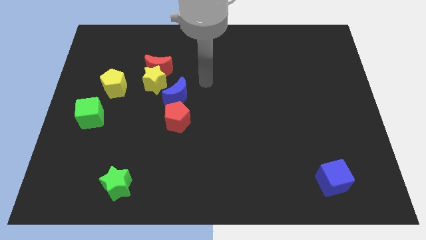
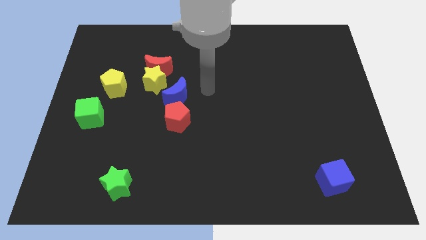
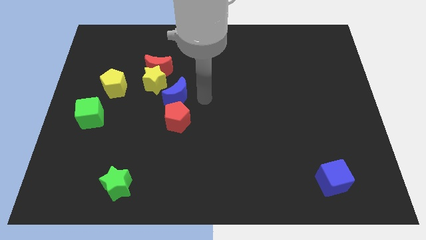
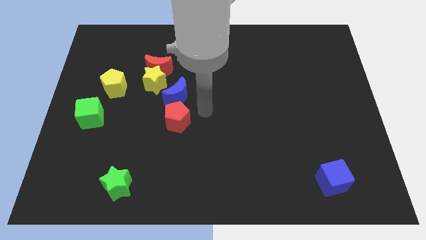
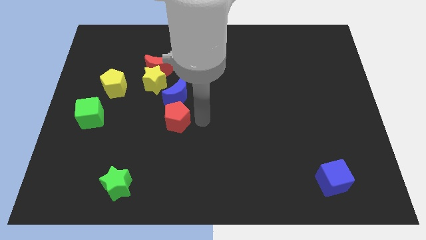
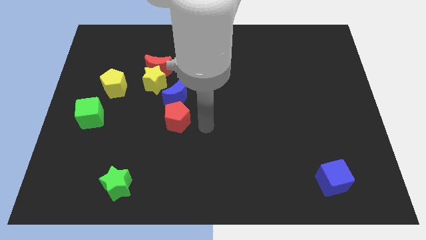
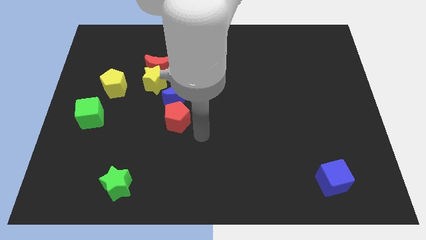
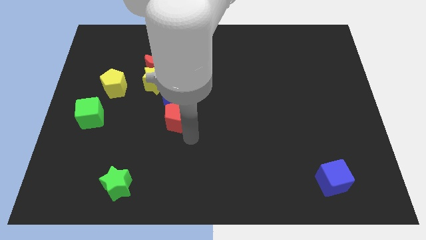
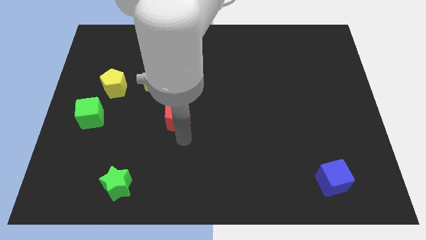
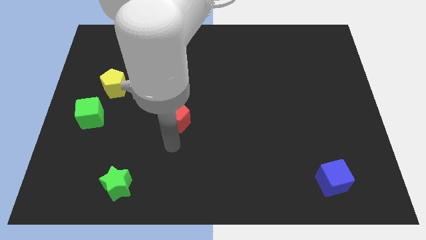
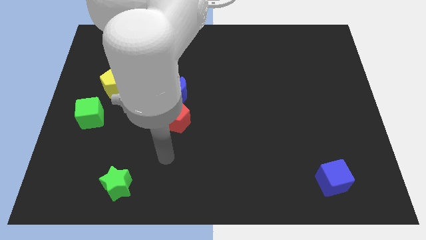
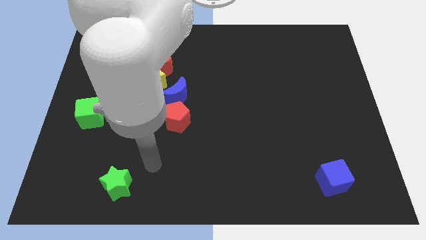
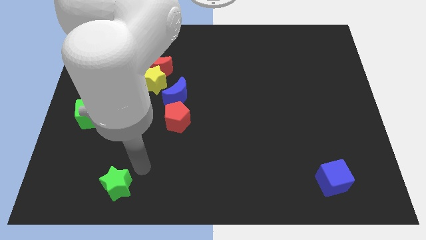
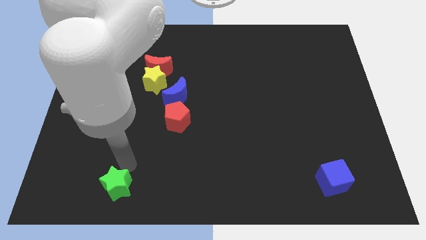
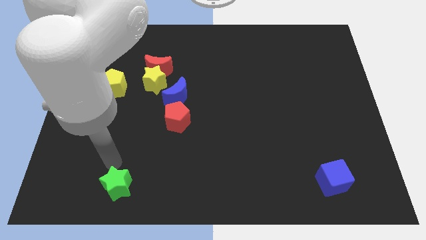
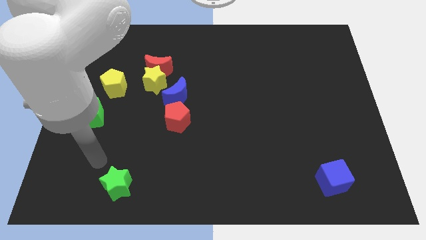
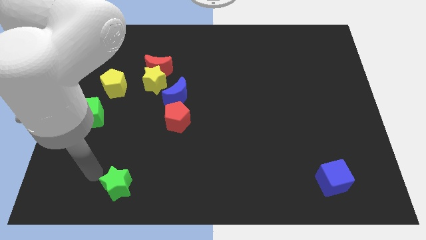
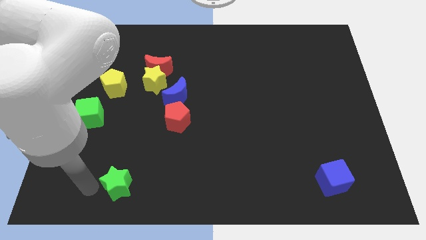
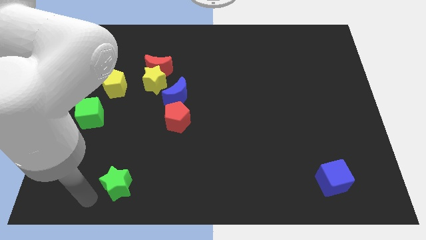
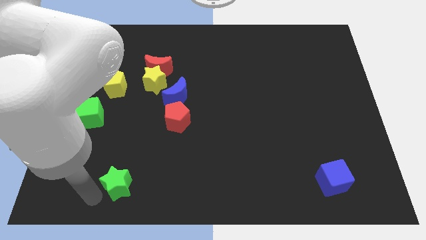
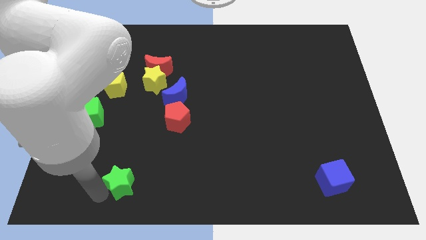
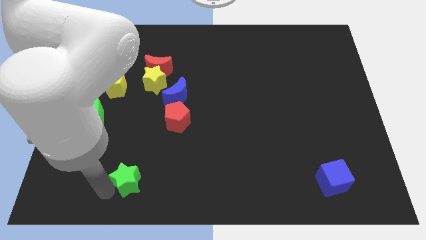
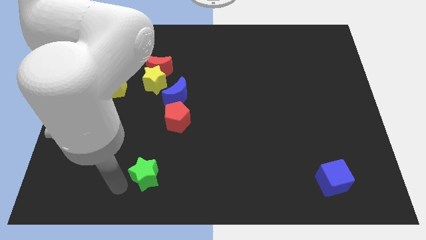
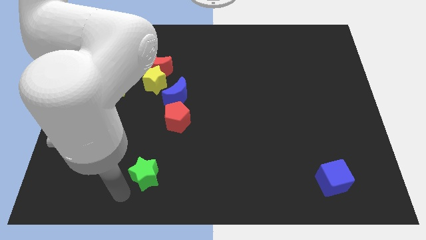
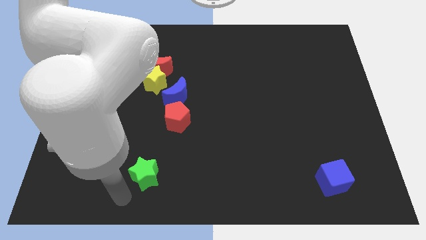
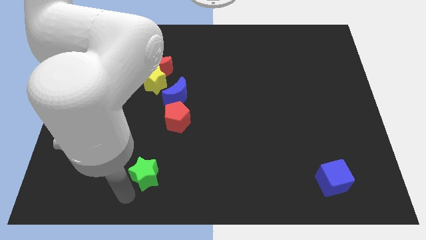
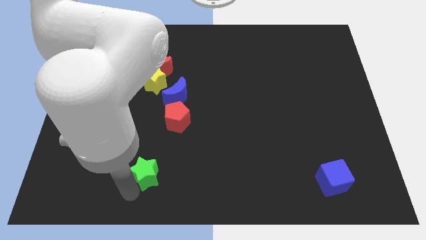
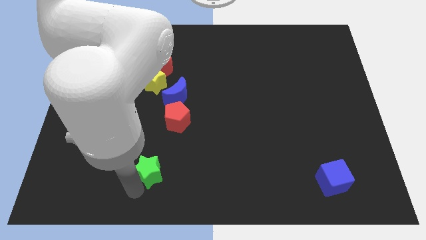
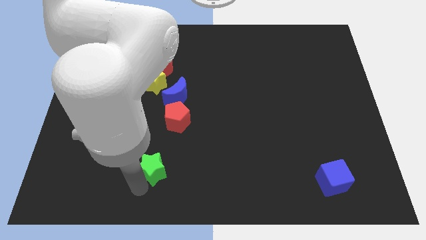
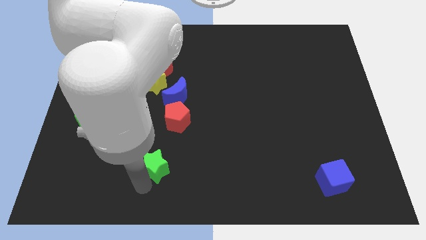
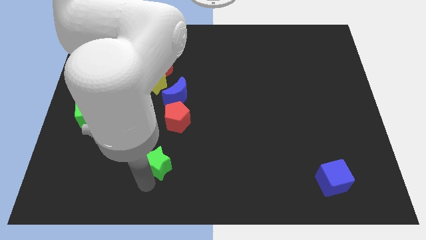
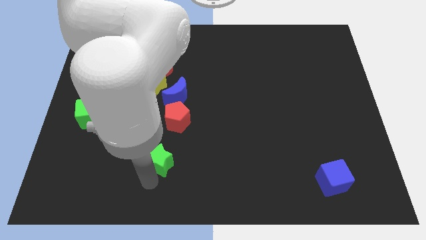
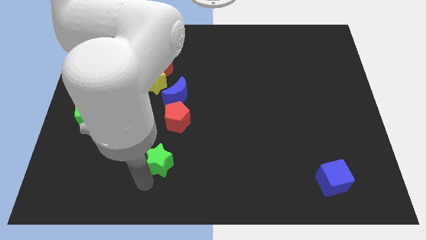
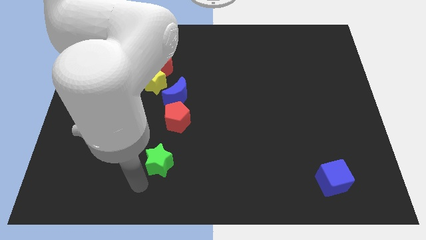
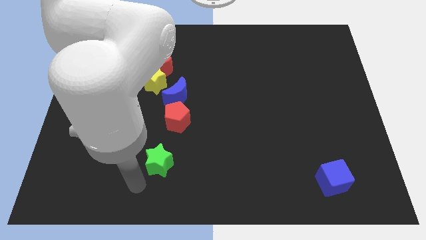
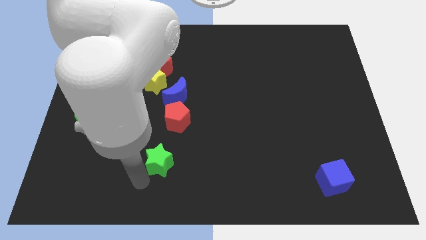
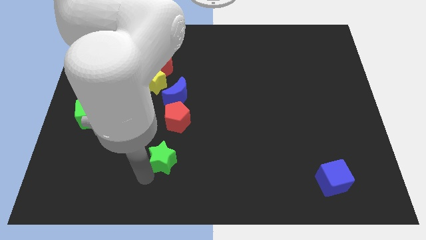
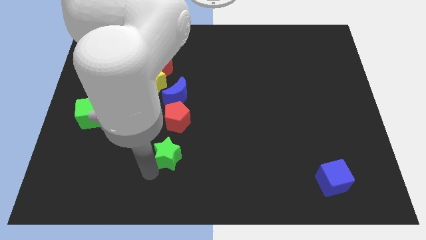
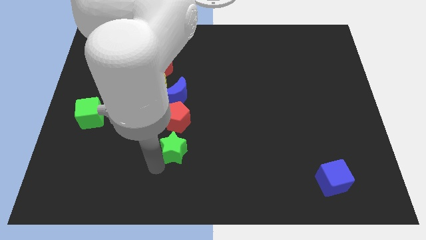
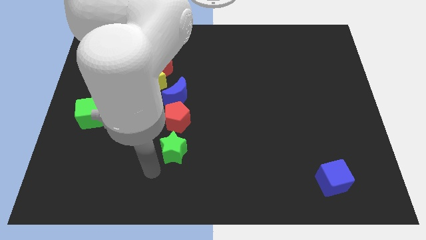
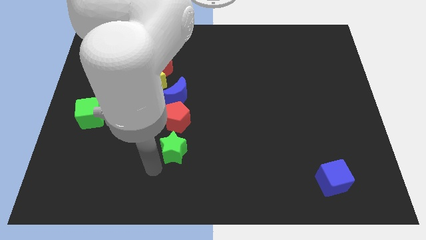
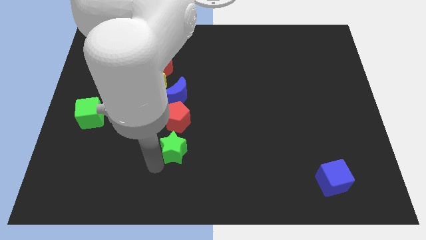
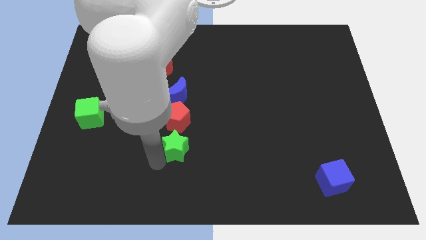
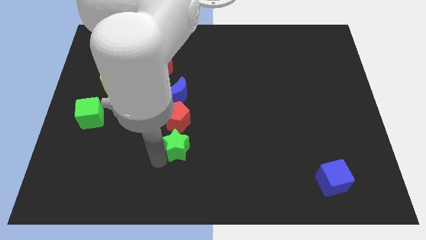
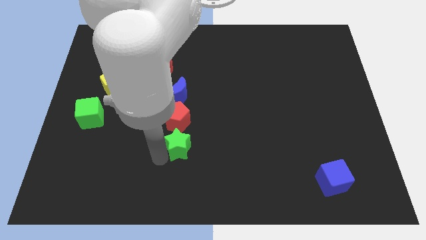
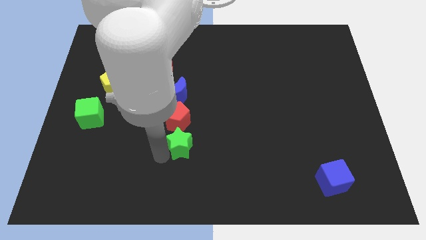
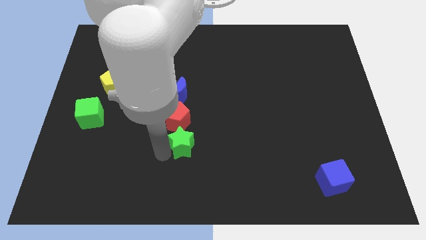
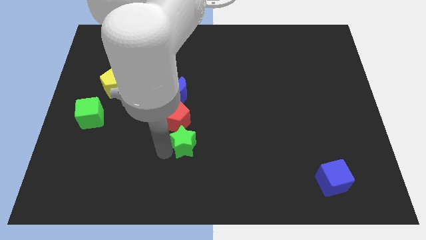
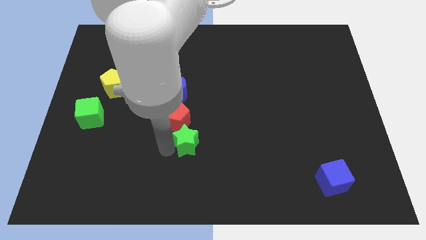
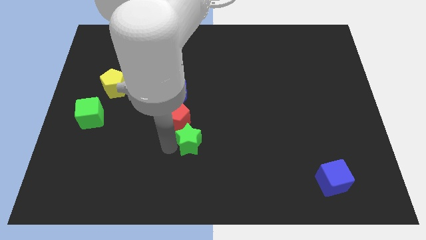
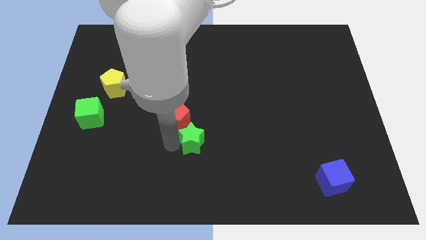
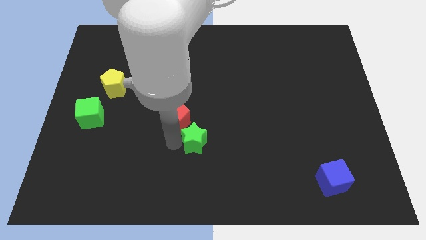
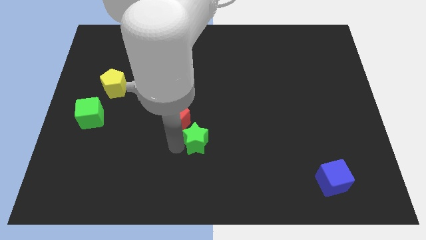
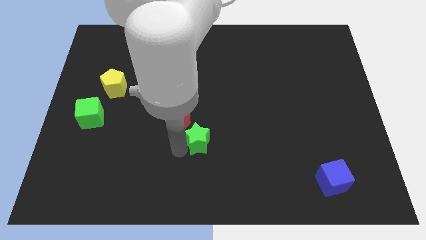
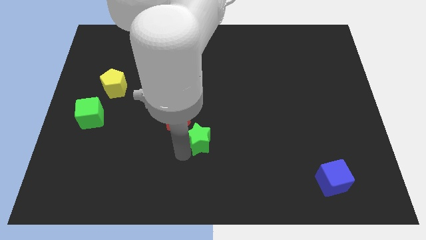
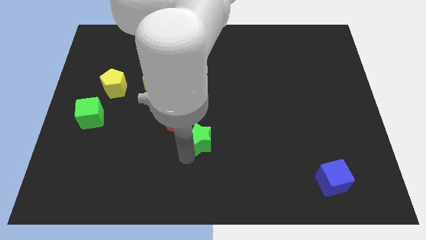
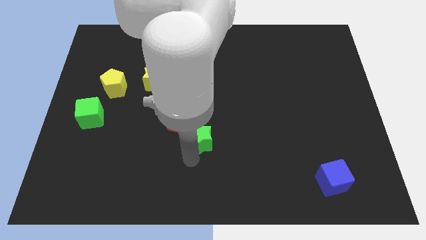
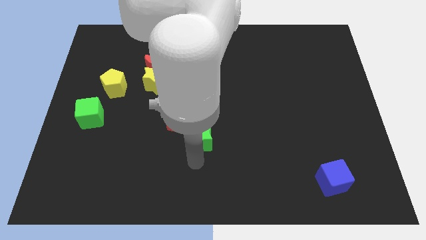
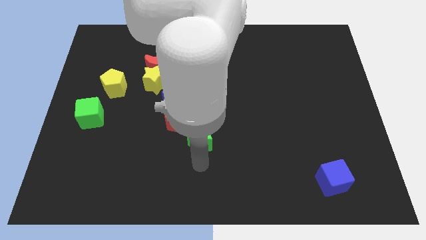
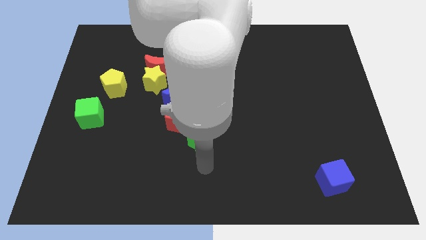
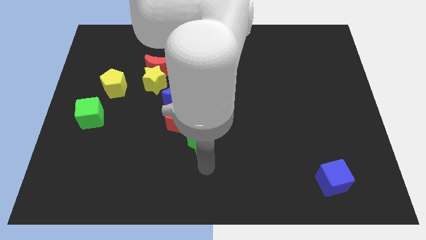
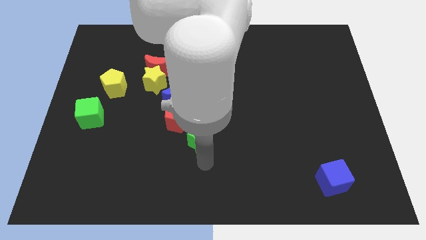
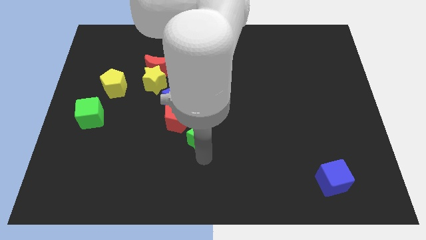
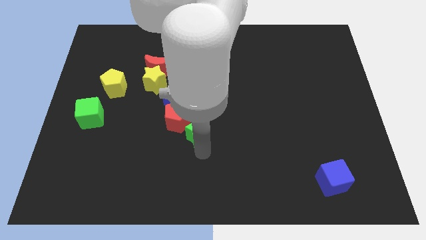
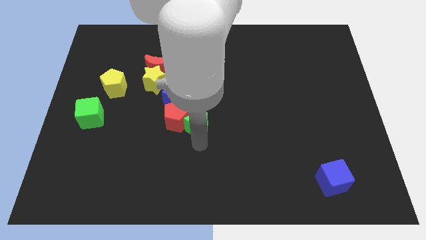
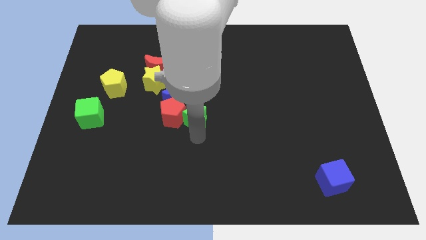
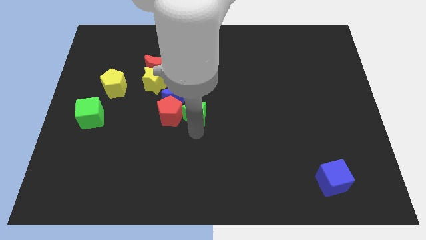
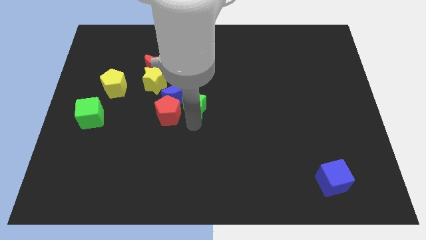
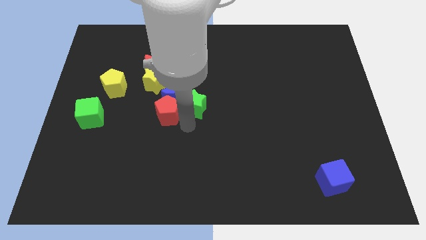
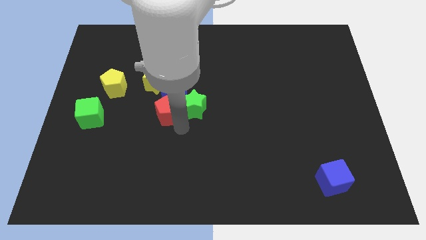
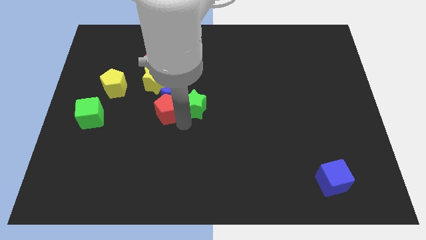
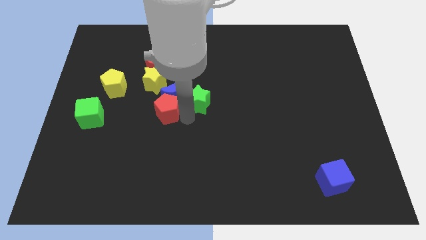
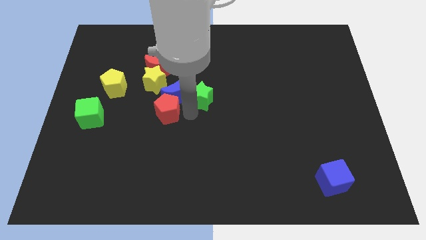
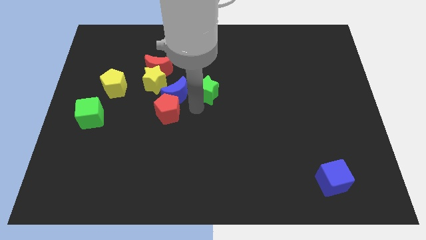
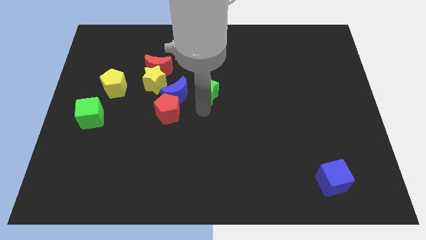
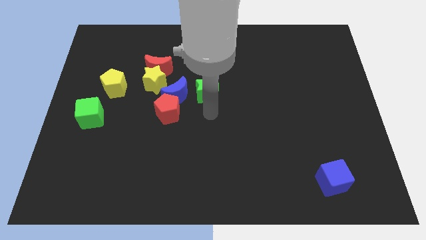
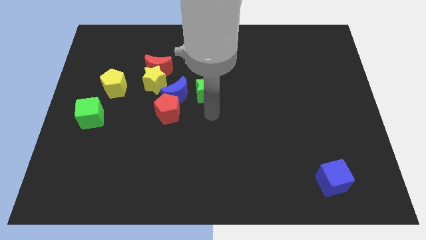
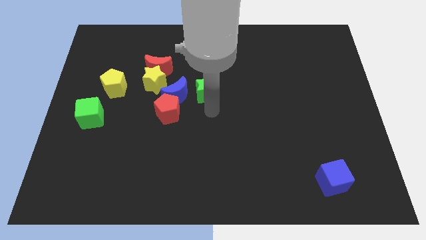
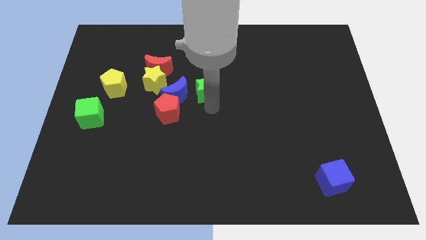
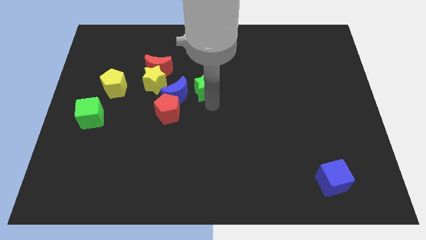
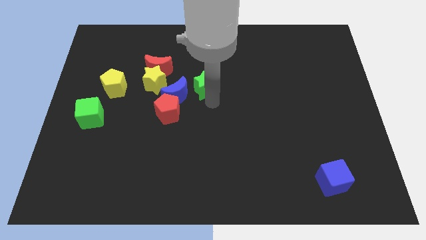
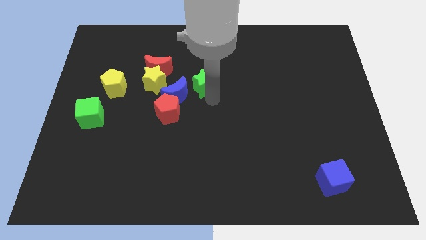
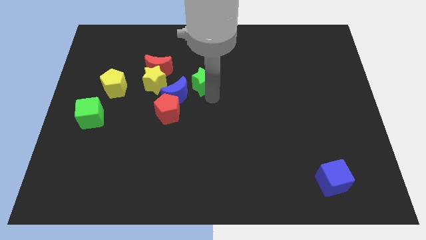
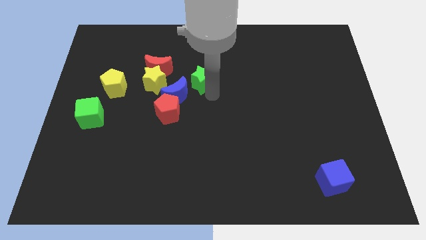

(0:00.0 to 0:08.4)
push the green star just right of the red moon
